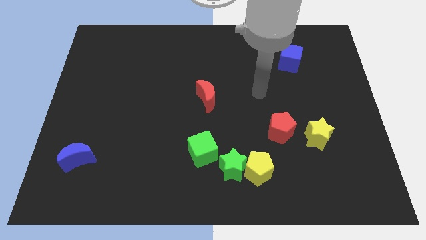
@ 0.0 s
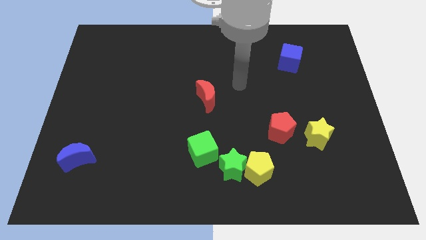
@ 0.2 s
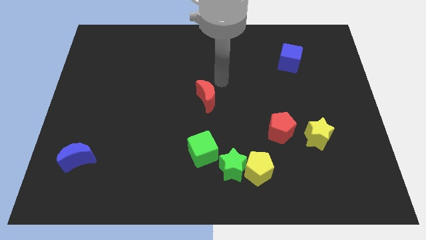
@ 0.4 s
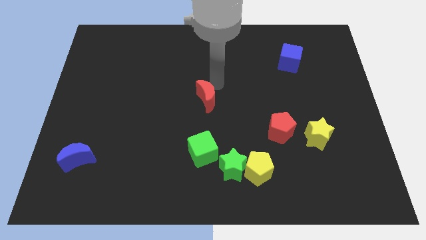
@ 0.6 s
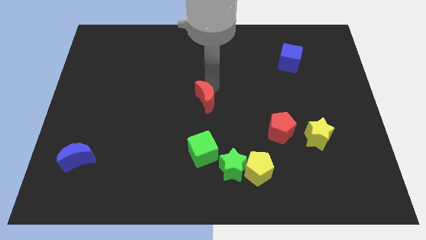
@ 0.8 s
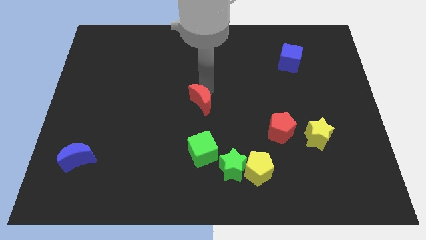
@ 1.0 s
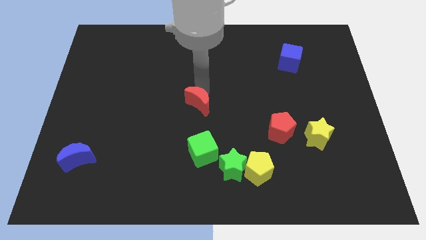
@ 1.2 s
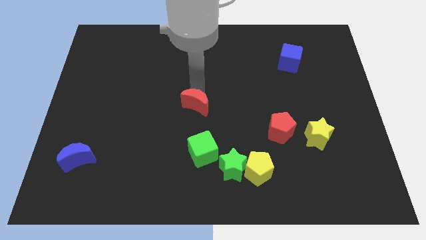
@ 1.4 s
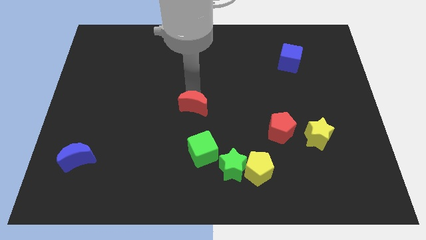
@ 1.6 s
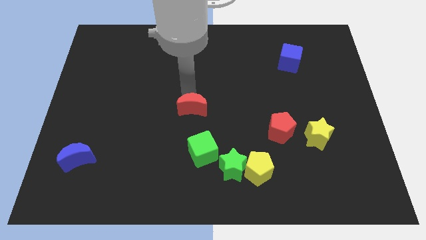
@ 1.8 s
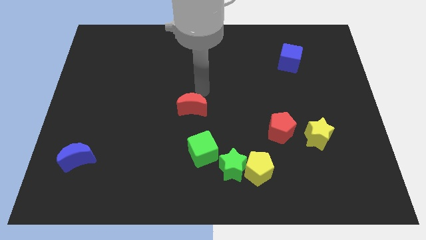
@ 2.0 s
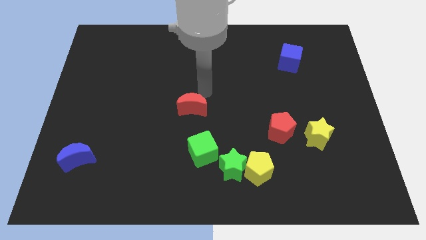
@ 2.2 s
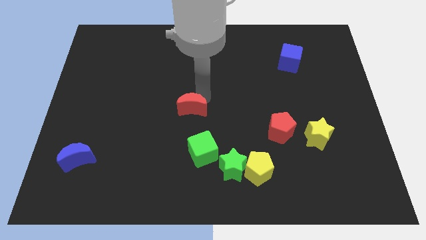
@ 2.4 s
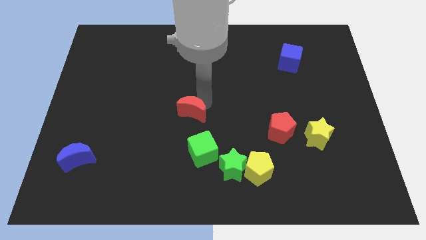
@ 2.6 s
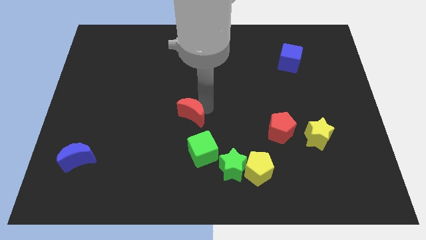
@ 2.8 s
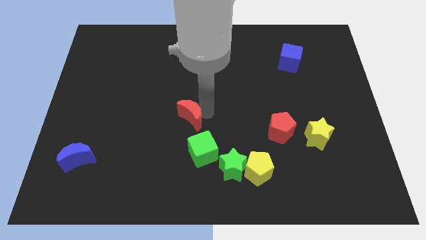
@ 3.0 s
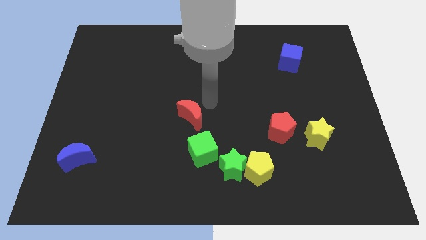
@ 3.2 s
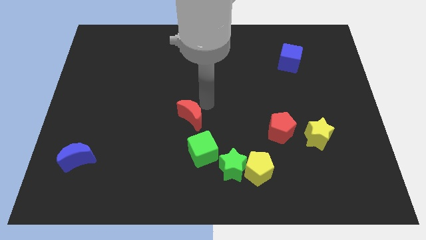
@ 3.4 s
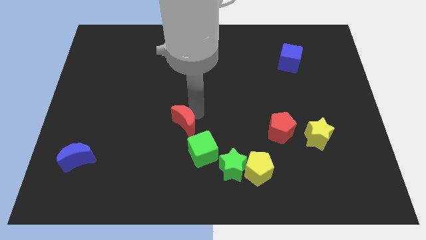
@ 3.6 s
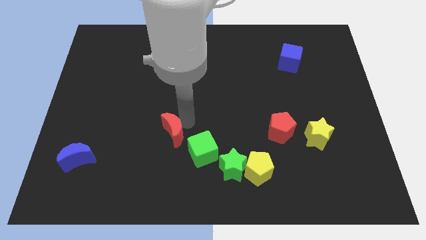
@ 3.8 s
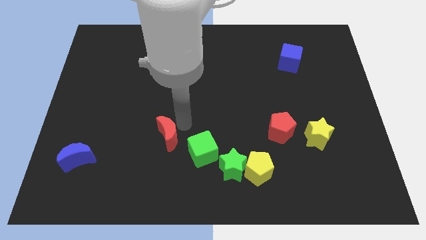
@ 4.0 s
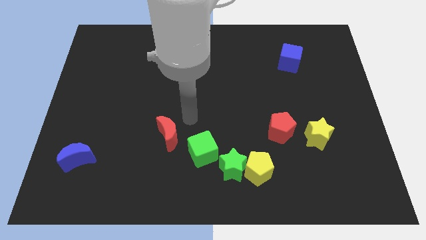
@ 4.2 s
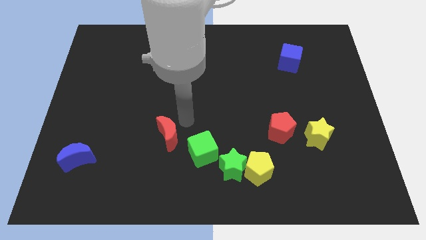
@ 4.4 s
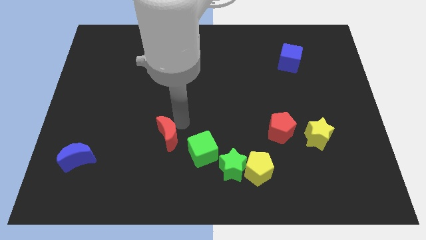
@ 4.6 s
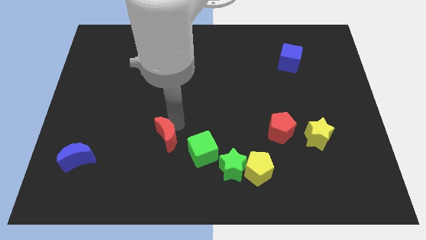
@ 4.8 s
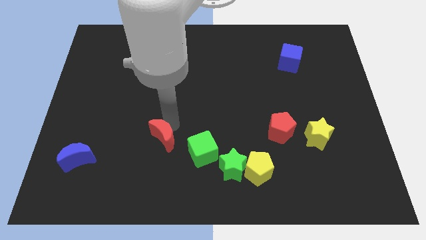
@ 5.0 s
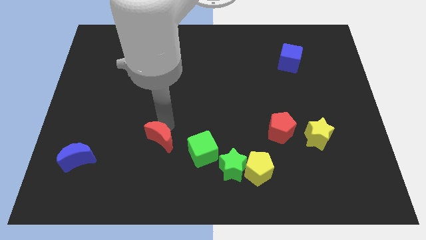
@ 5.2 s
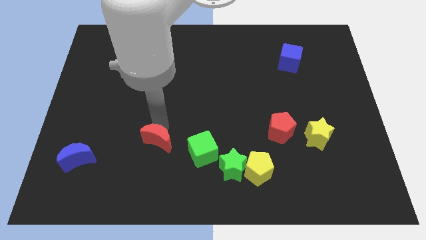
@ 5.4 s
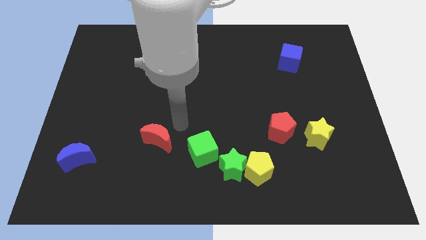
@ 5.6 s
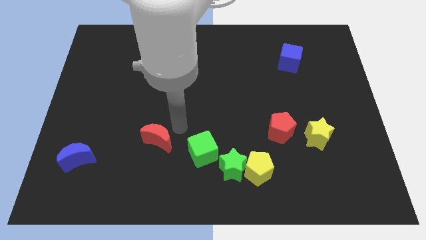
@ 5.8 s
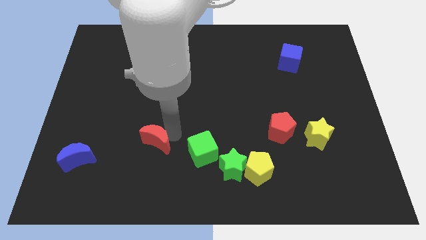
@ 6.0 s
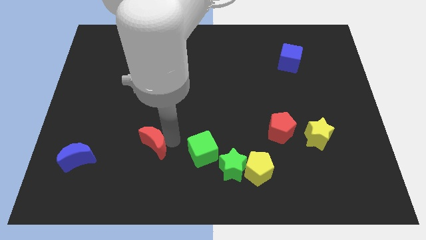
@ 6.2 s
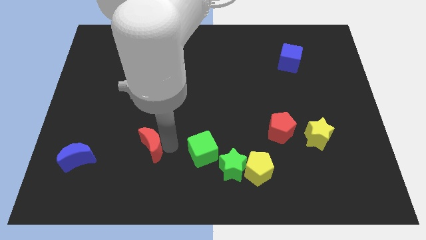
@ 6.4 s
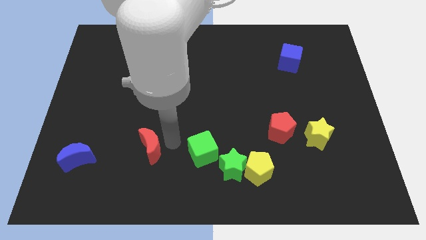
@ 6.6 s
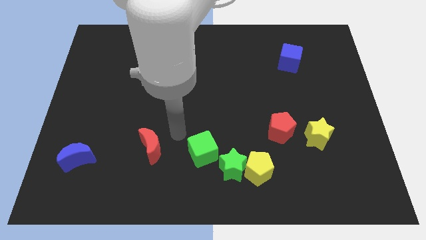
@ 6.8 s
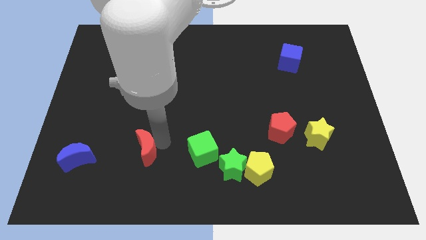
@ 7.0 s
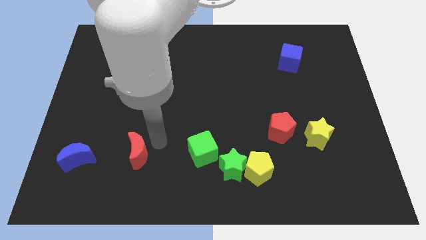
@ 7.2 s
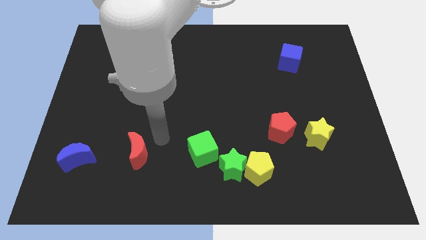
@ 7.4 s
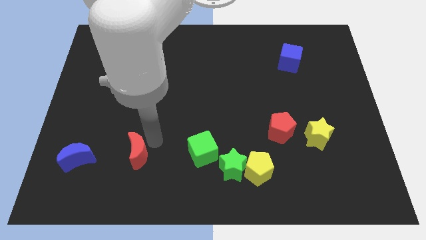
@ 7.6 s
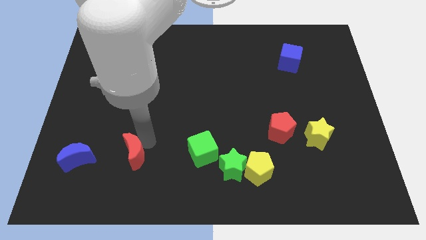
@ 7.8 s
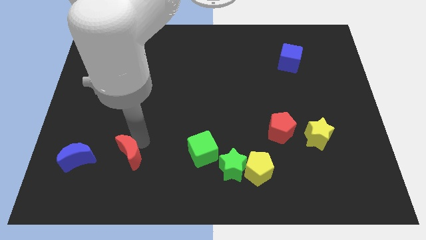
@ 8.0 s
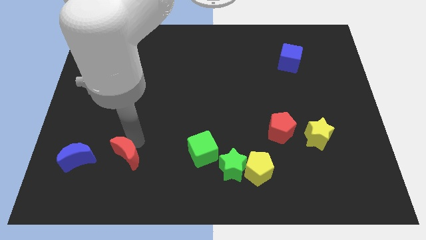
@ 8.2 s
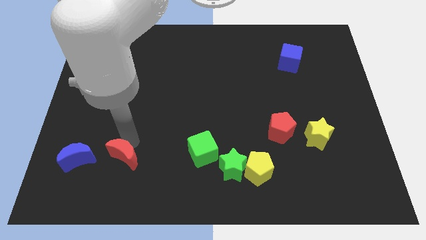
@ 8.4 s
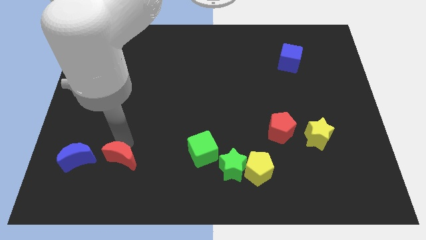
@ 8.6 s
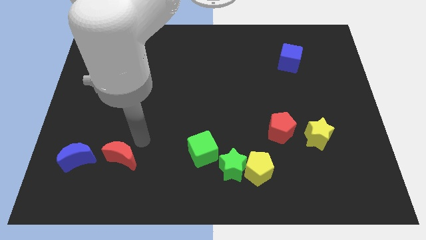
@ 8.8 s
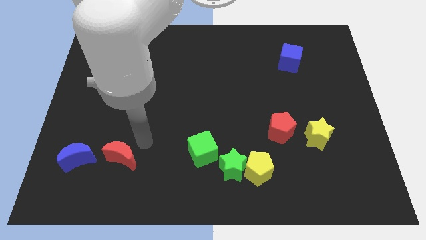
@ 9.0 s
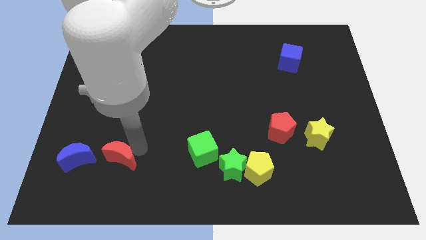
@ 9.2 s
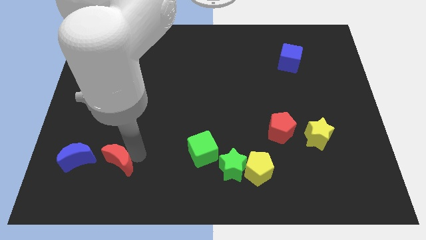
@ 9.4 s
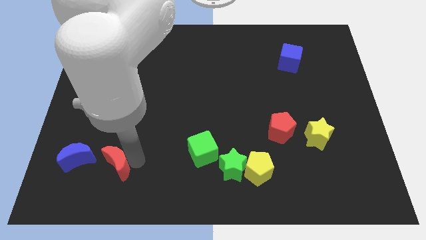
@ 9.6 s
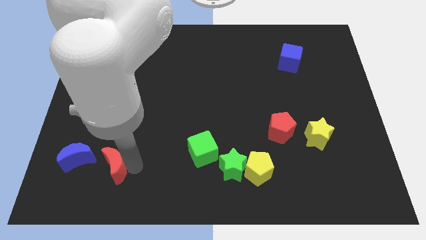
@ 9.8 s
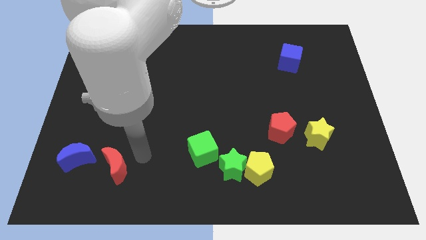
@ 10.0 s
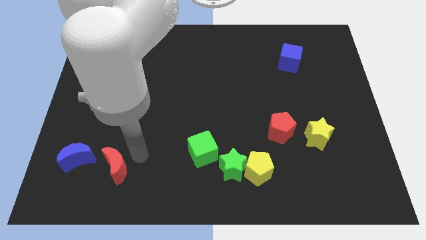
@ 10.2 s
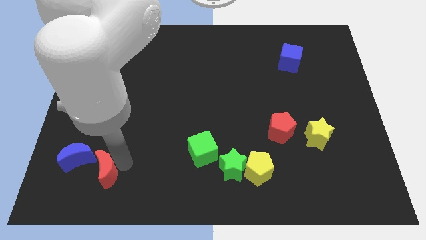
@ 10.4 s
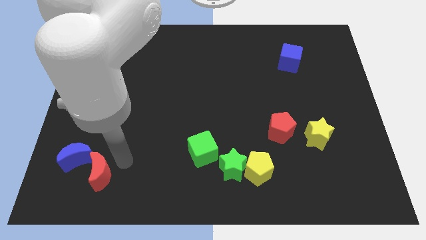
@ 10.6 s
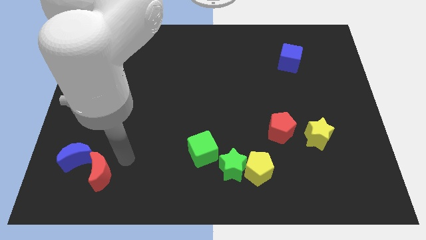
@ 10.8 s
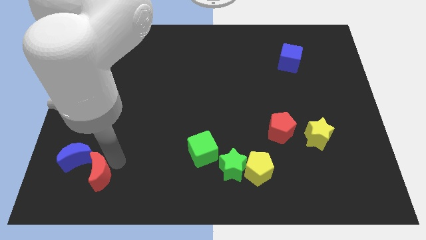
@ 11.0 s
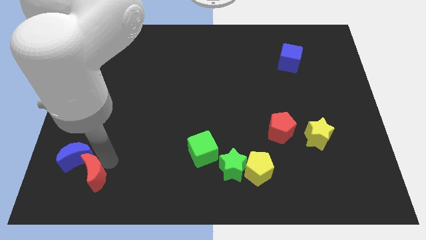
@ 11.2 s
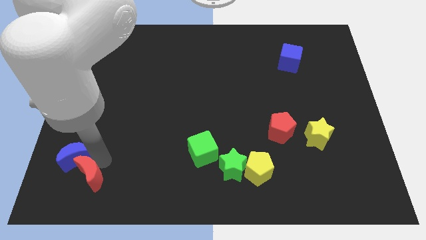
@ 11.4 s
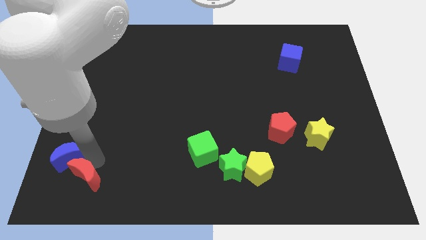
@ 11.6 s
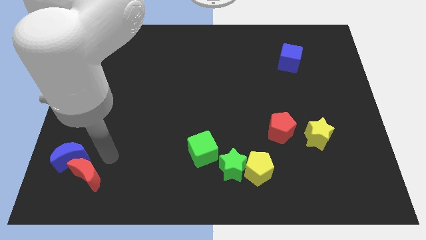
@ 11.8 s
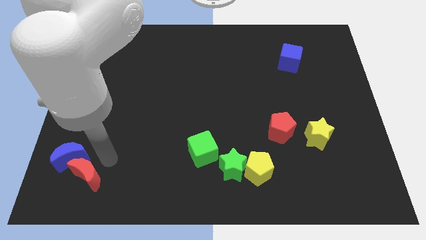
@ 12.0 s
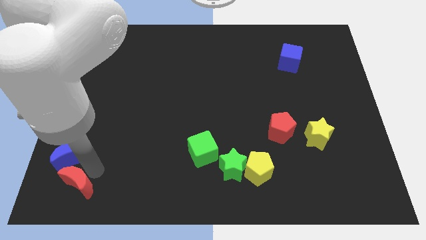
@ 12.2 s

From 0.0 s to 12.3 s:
push the red moon to the bottom left
